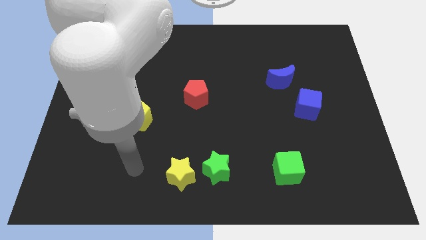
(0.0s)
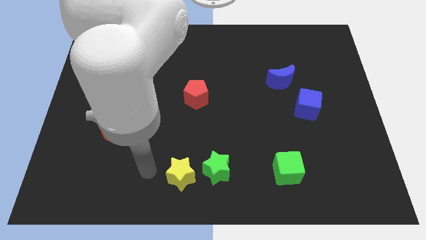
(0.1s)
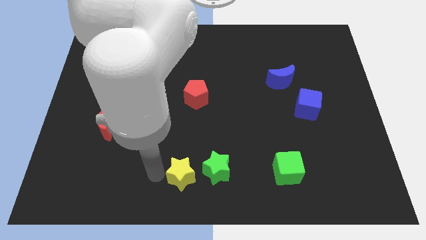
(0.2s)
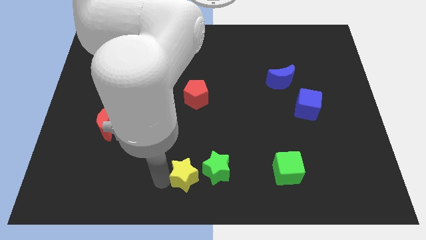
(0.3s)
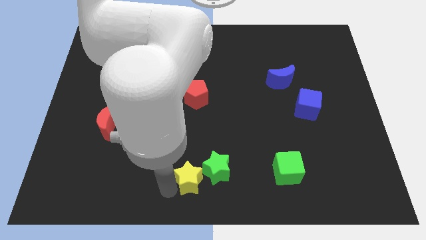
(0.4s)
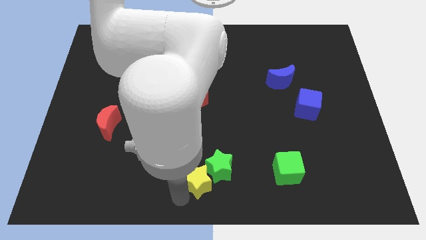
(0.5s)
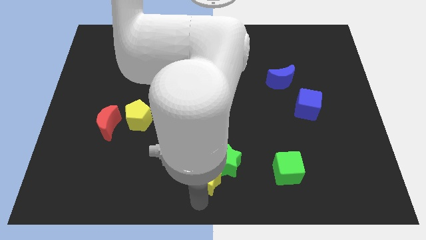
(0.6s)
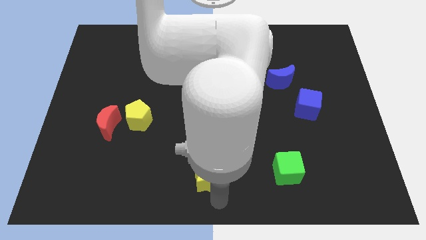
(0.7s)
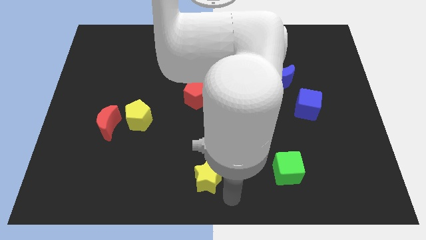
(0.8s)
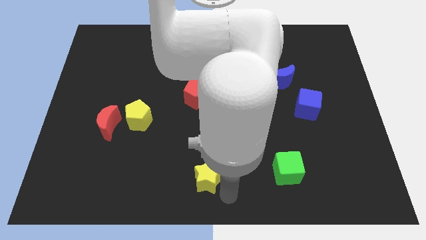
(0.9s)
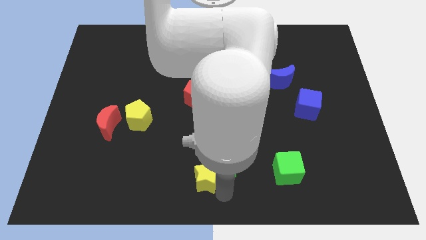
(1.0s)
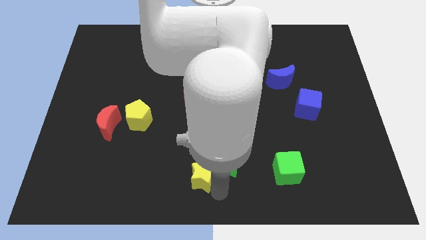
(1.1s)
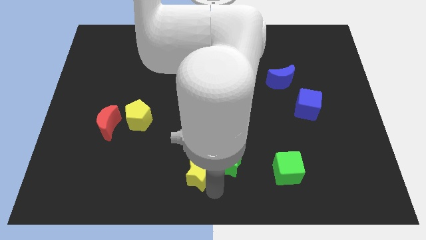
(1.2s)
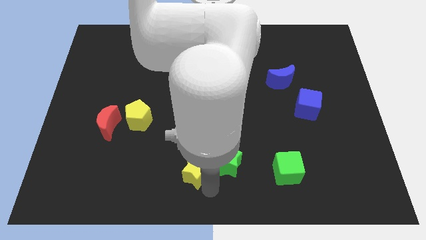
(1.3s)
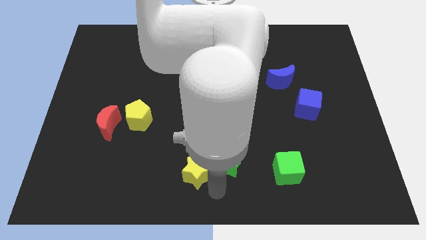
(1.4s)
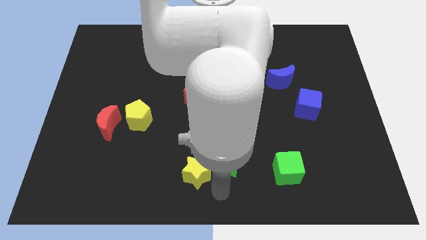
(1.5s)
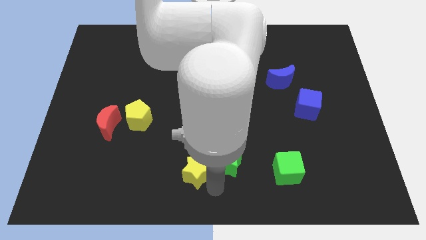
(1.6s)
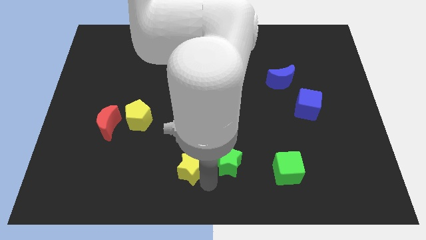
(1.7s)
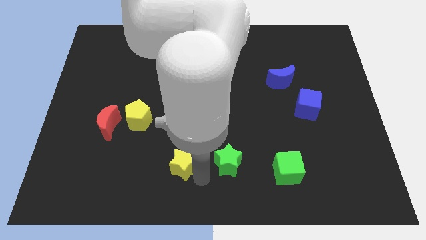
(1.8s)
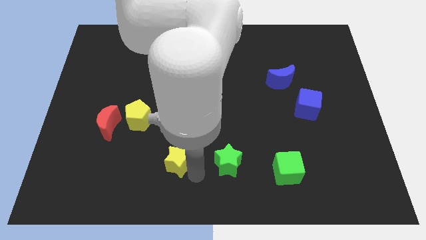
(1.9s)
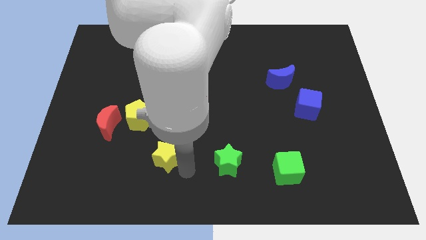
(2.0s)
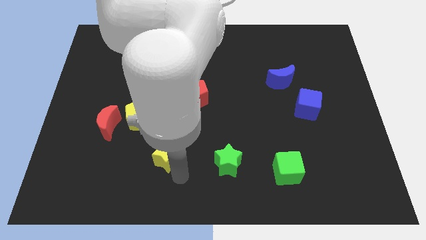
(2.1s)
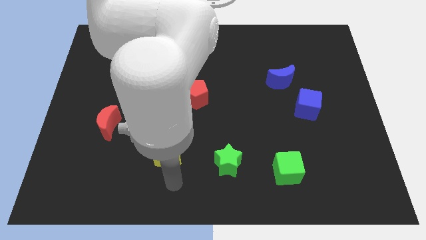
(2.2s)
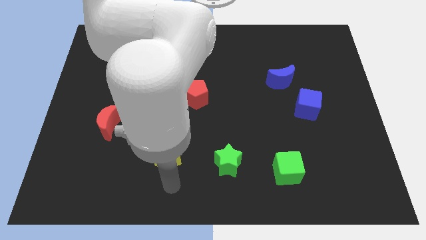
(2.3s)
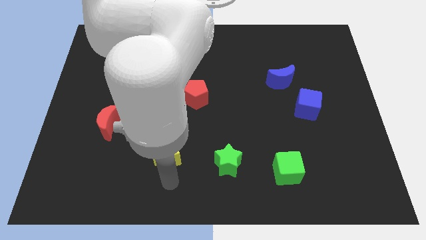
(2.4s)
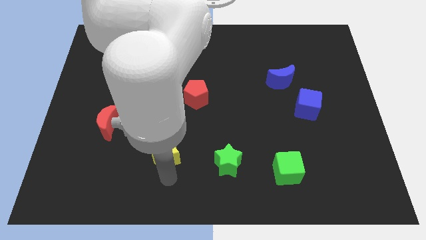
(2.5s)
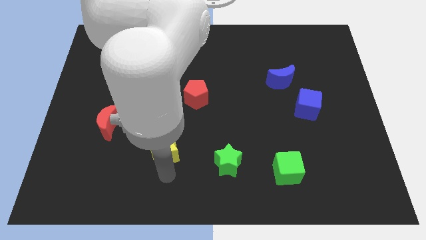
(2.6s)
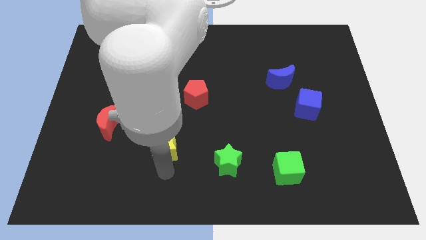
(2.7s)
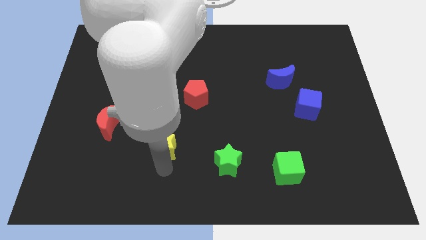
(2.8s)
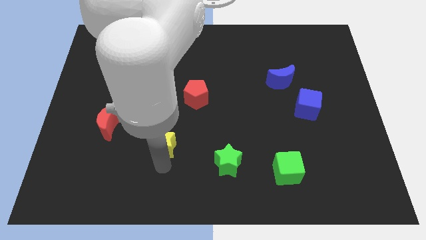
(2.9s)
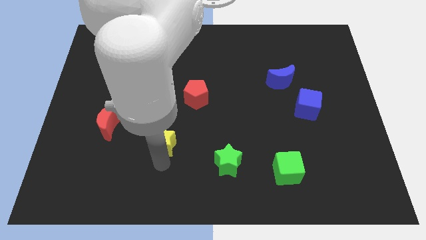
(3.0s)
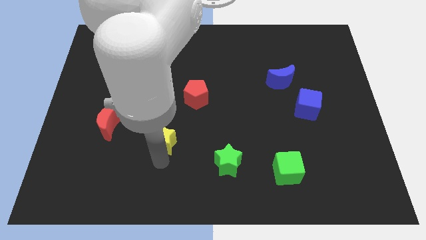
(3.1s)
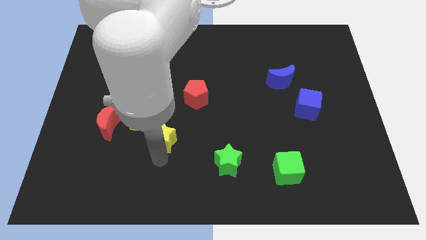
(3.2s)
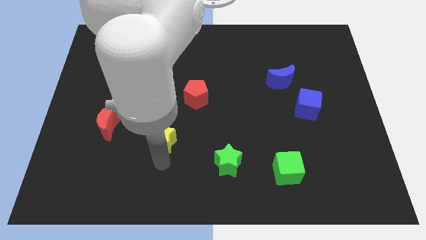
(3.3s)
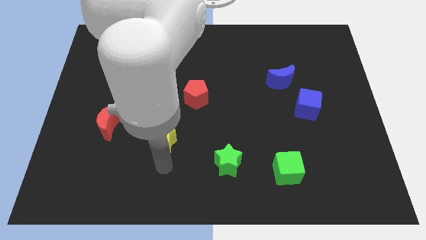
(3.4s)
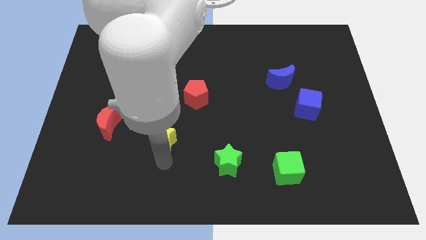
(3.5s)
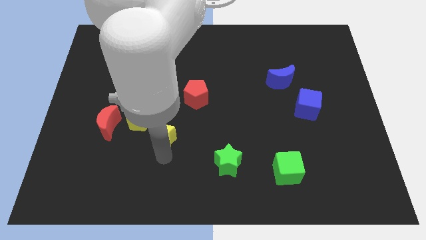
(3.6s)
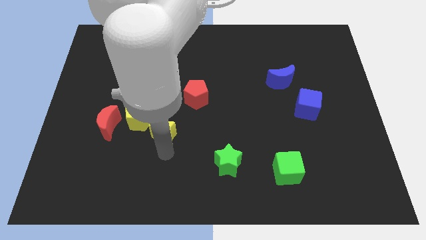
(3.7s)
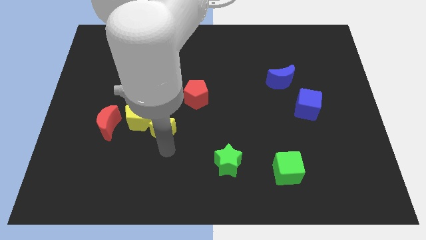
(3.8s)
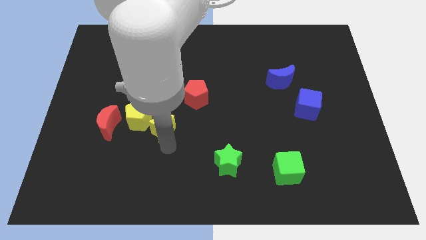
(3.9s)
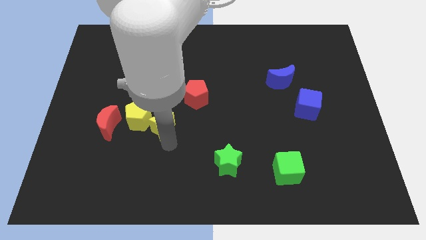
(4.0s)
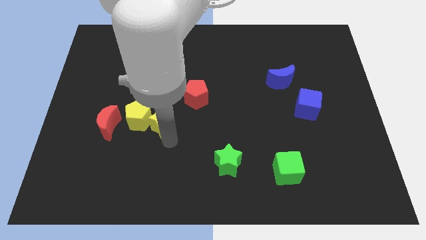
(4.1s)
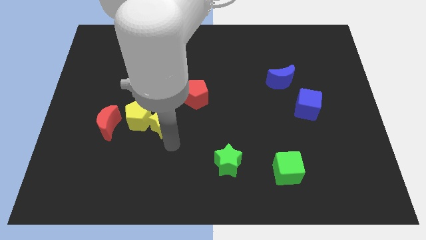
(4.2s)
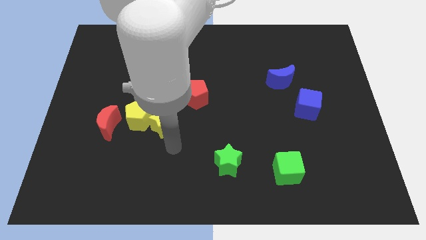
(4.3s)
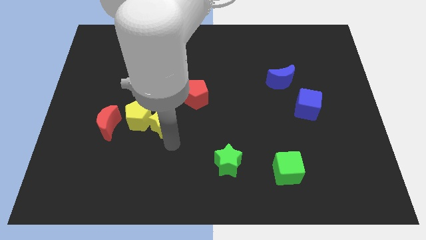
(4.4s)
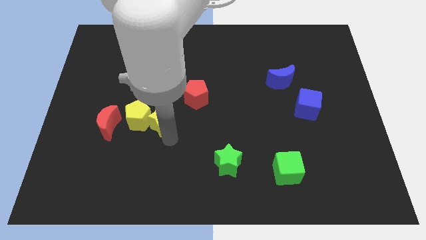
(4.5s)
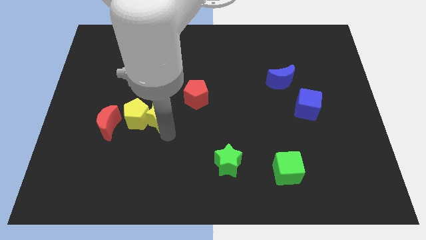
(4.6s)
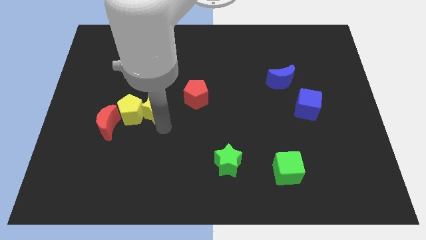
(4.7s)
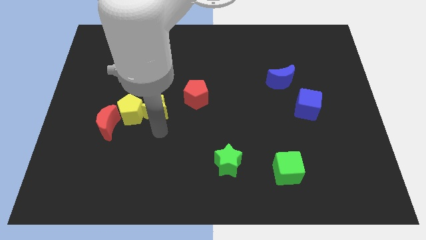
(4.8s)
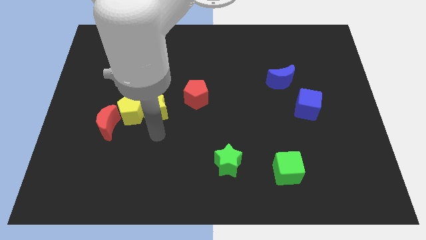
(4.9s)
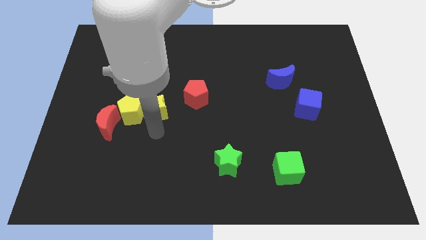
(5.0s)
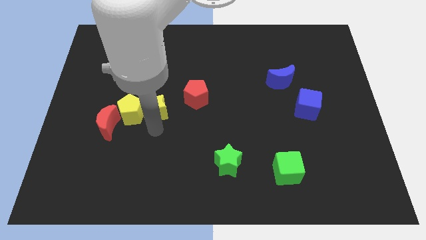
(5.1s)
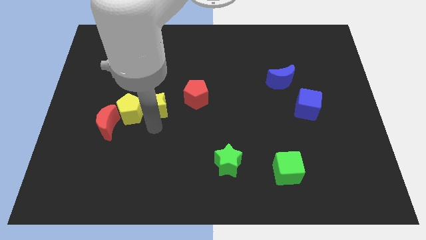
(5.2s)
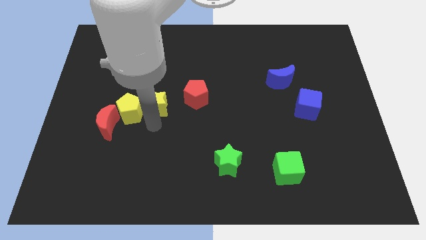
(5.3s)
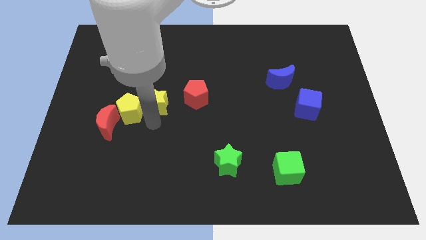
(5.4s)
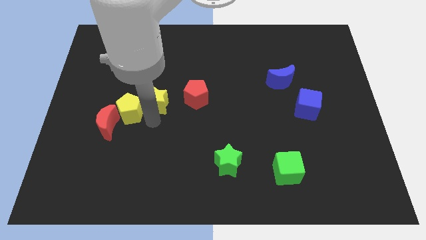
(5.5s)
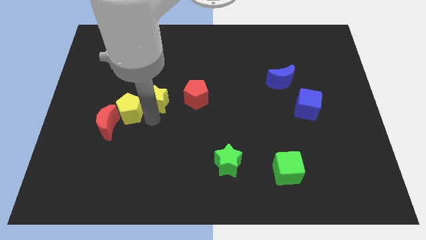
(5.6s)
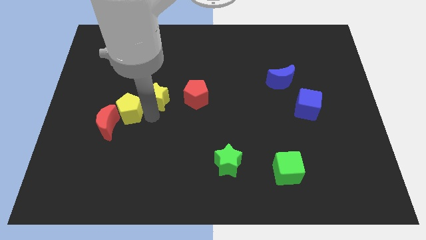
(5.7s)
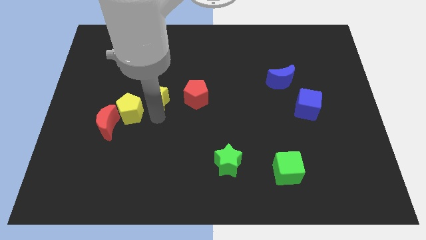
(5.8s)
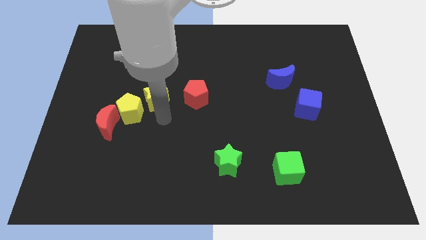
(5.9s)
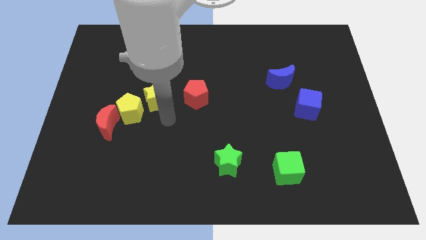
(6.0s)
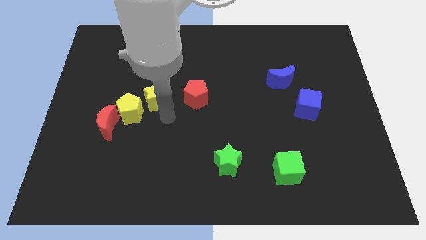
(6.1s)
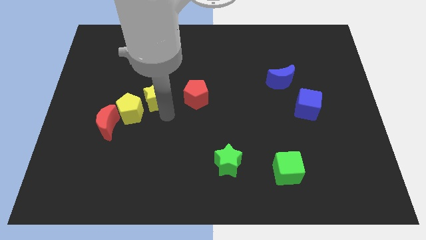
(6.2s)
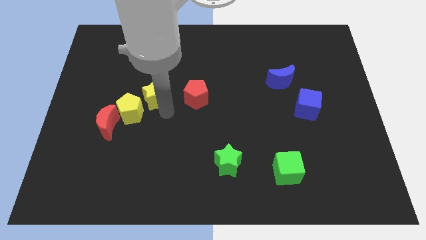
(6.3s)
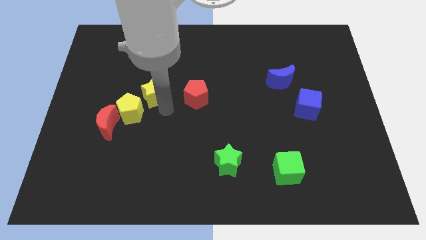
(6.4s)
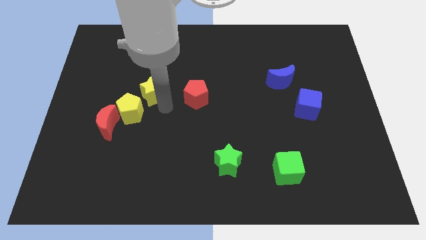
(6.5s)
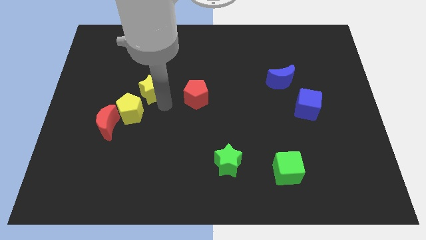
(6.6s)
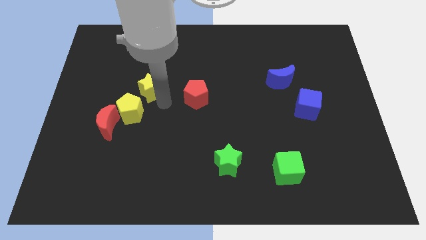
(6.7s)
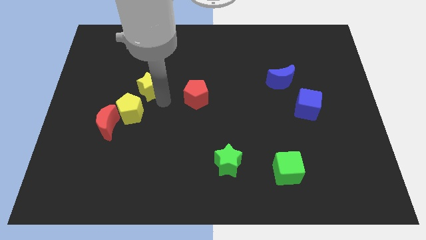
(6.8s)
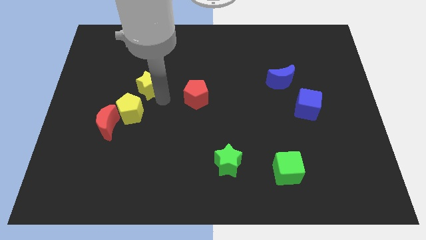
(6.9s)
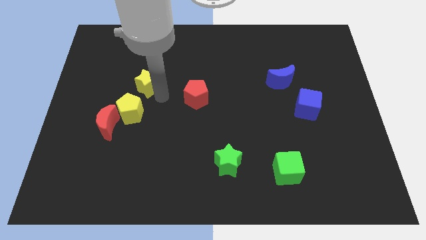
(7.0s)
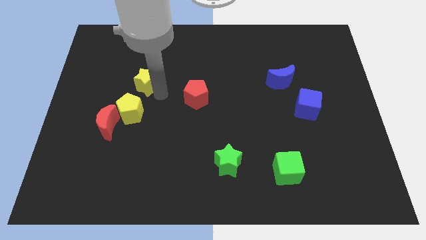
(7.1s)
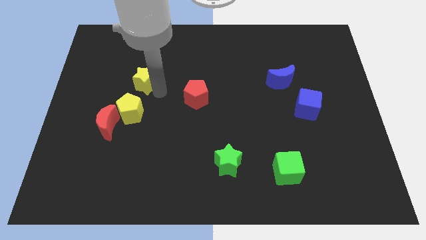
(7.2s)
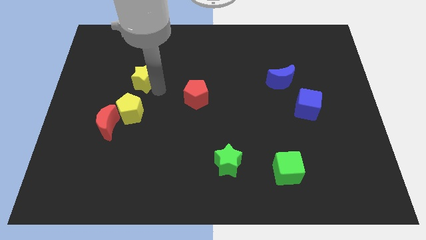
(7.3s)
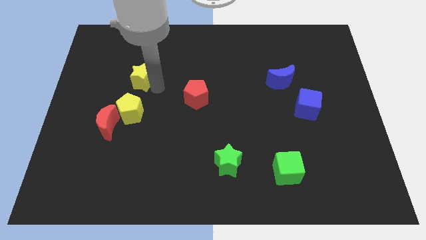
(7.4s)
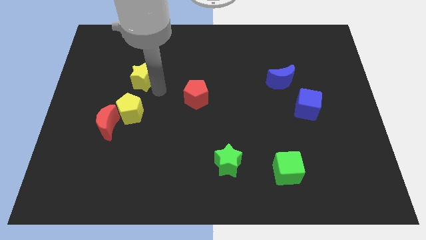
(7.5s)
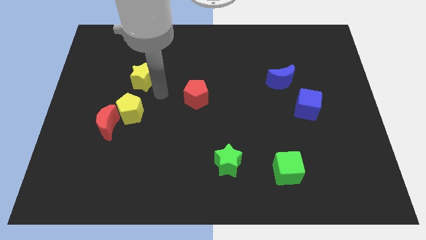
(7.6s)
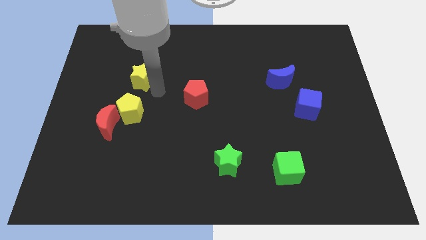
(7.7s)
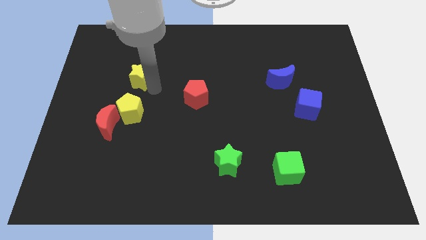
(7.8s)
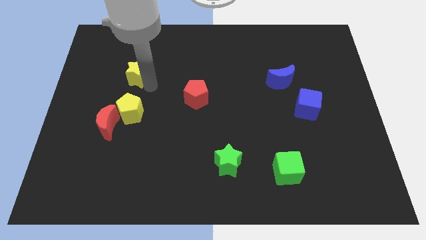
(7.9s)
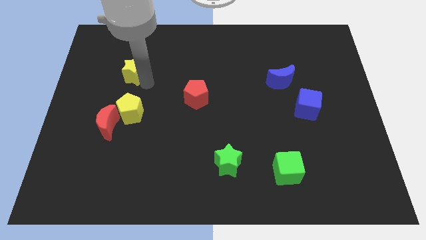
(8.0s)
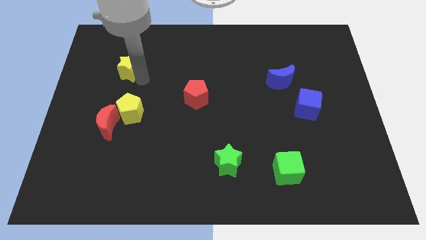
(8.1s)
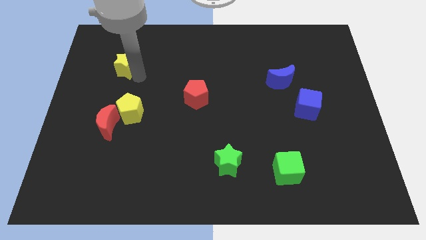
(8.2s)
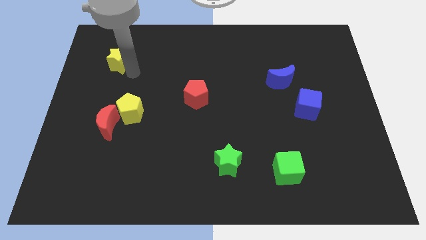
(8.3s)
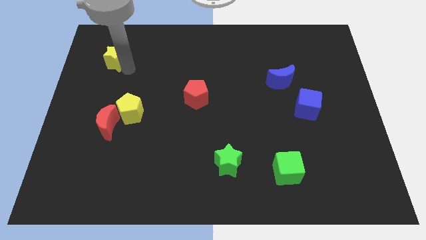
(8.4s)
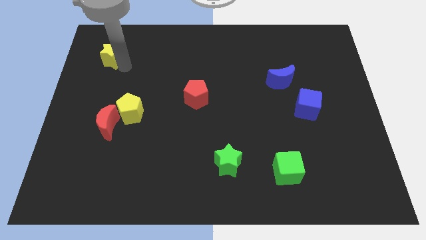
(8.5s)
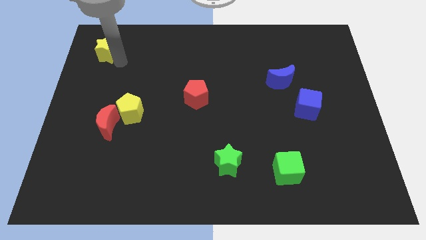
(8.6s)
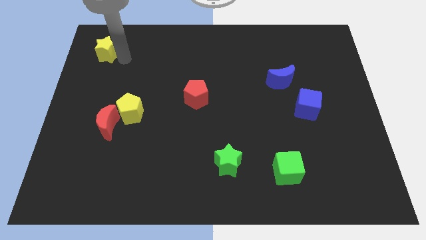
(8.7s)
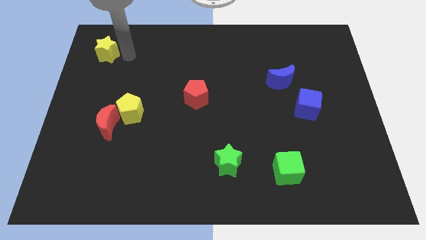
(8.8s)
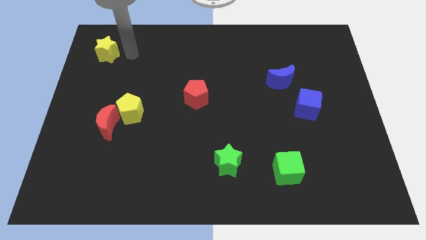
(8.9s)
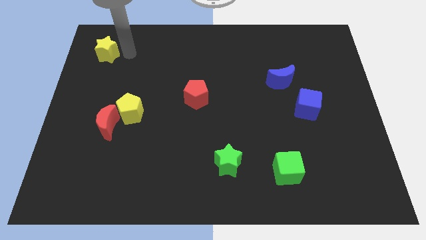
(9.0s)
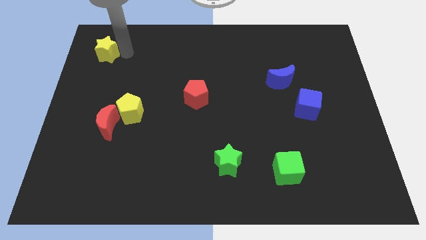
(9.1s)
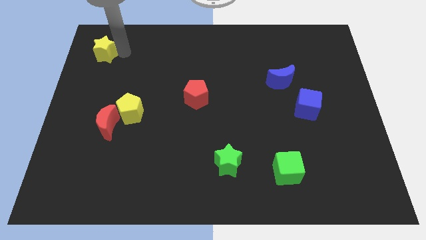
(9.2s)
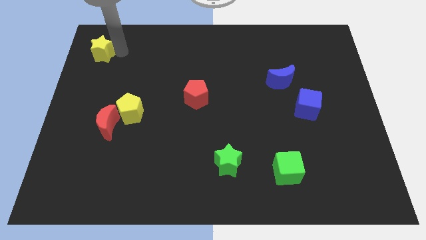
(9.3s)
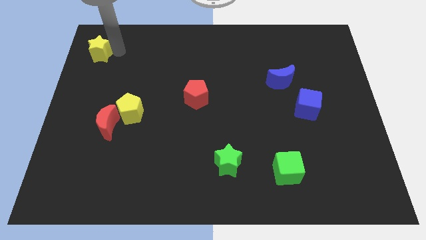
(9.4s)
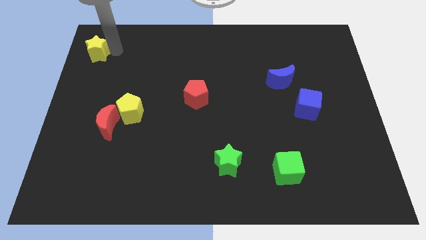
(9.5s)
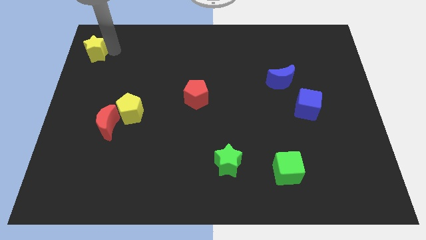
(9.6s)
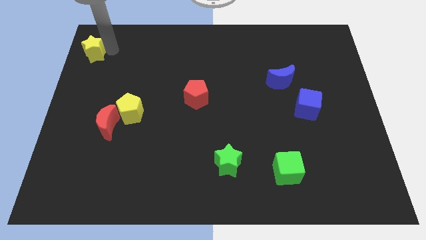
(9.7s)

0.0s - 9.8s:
slide the yellow star to the top left of the board
